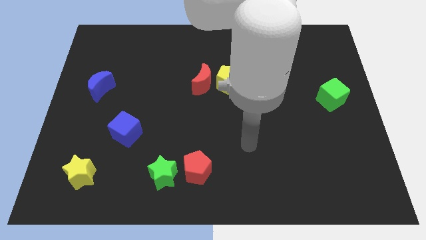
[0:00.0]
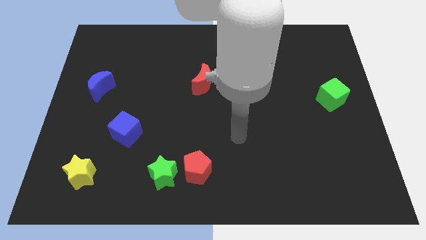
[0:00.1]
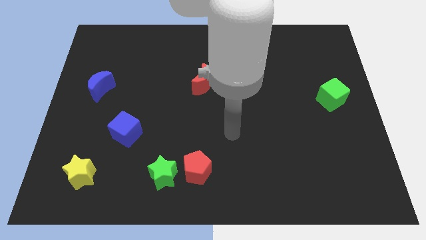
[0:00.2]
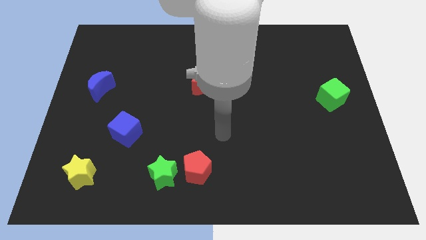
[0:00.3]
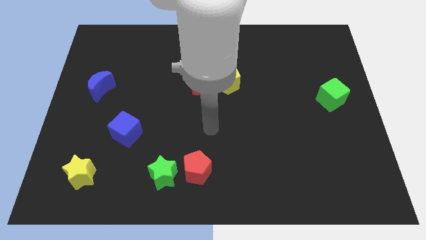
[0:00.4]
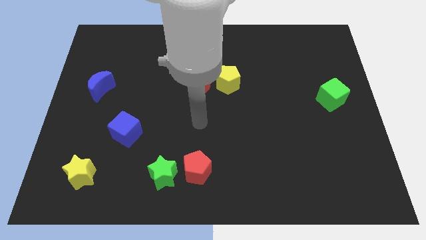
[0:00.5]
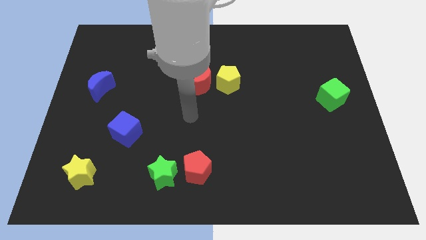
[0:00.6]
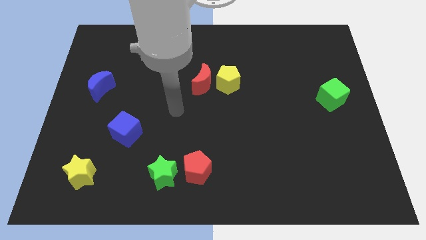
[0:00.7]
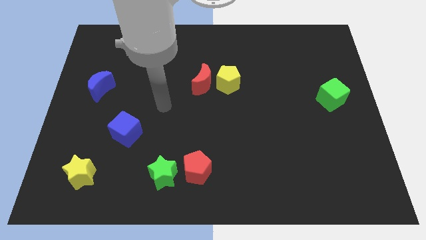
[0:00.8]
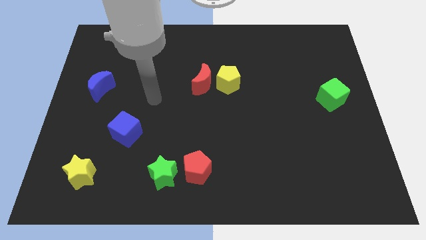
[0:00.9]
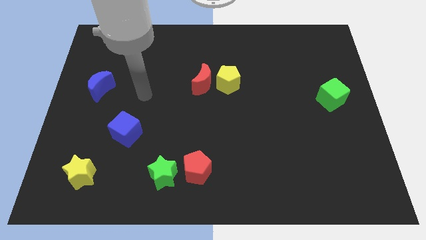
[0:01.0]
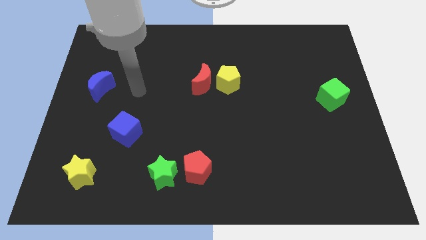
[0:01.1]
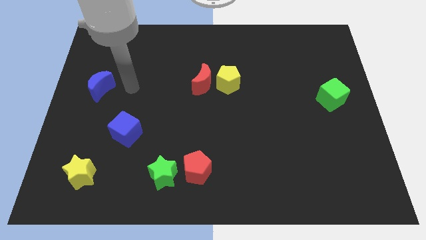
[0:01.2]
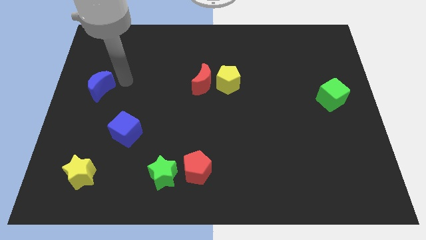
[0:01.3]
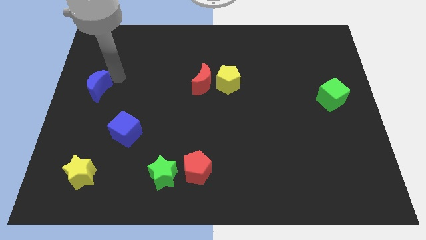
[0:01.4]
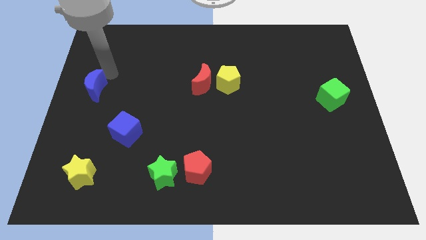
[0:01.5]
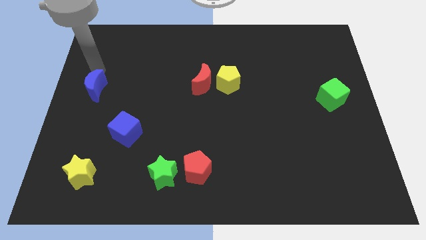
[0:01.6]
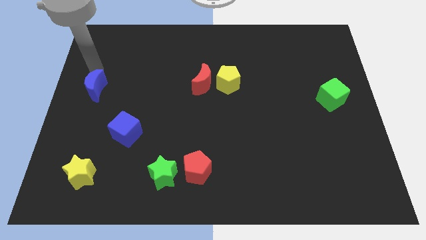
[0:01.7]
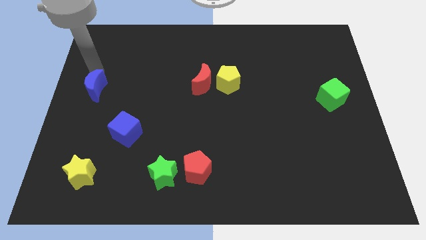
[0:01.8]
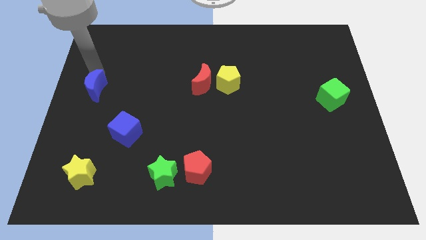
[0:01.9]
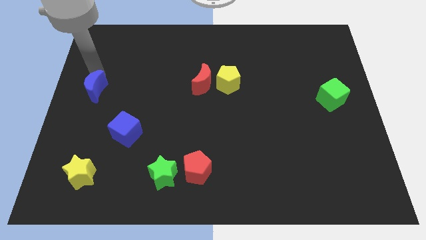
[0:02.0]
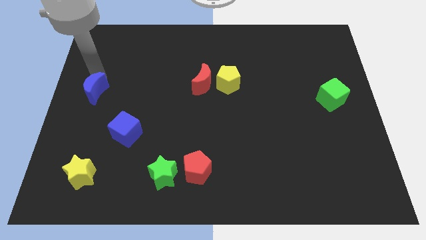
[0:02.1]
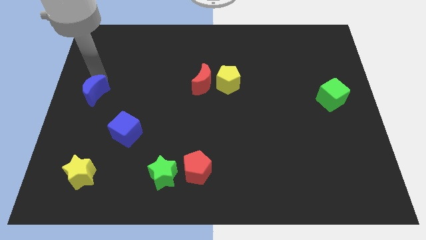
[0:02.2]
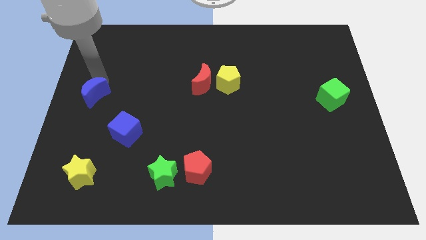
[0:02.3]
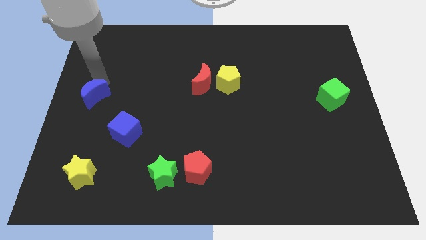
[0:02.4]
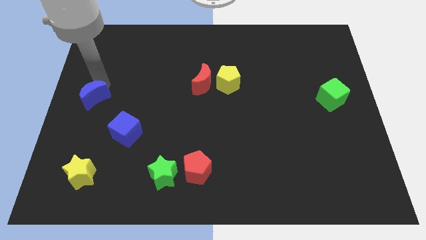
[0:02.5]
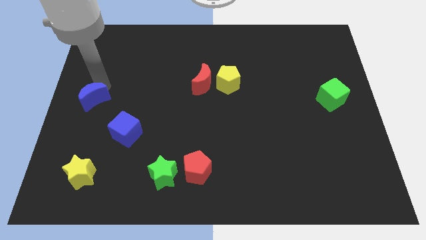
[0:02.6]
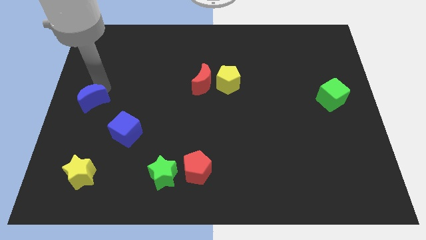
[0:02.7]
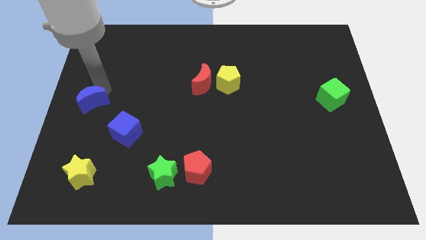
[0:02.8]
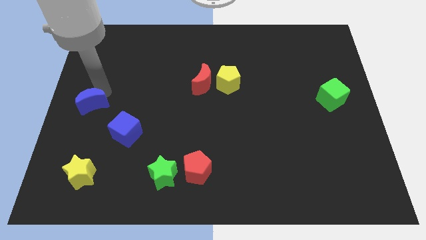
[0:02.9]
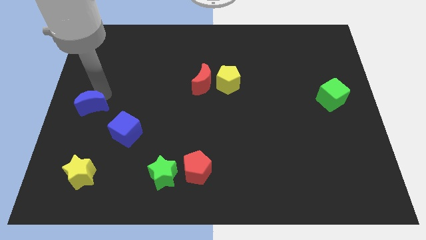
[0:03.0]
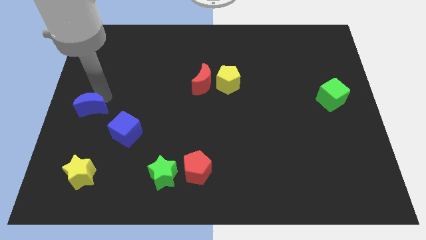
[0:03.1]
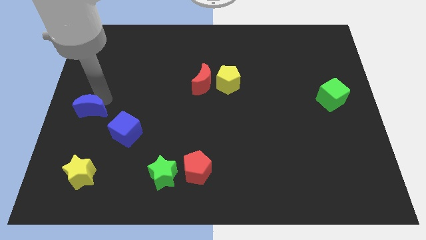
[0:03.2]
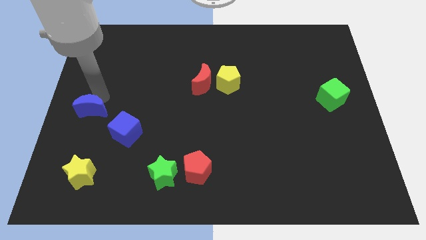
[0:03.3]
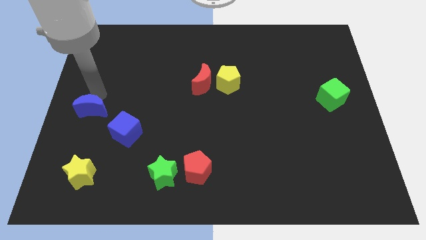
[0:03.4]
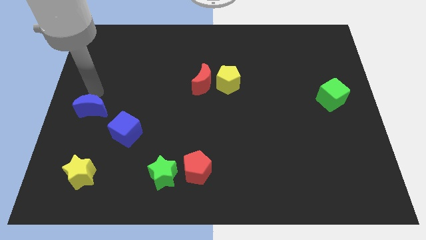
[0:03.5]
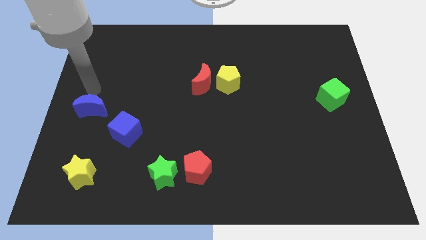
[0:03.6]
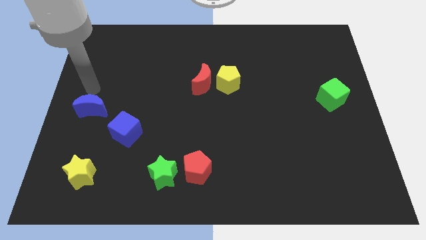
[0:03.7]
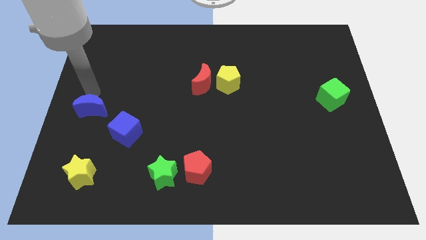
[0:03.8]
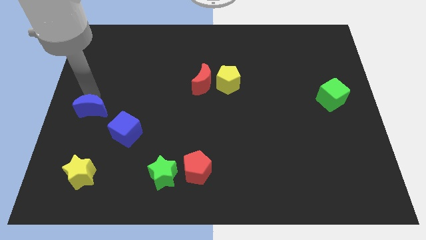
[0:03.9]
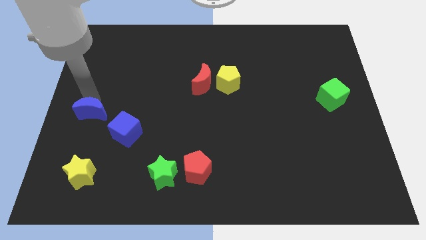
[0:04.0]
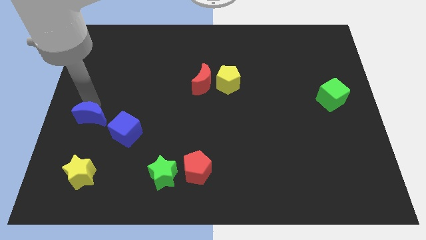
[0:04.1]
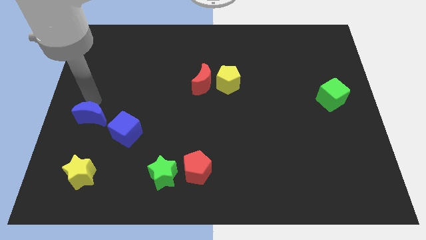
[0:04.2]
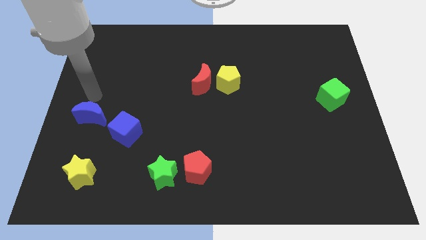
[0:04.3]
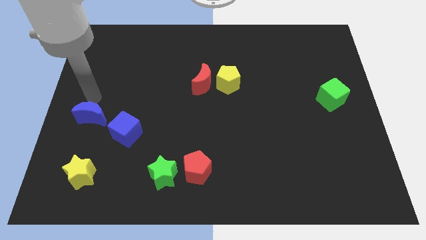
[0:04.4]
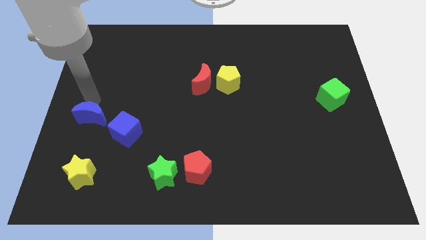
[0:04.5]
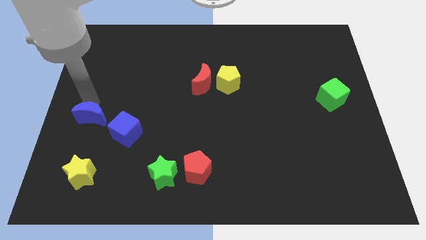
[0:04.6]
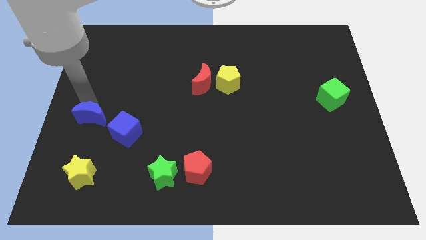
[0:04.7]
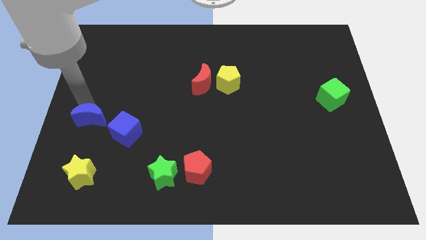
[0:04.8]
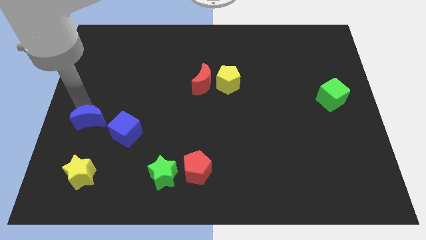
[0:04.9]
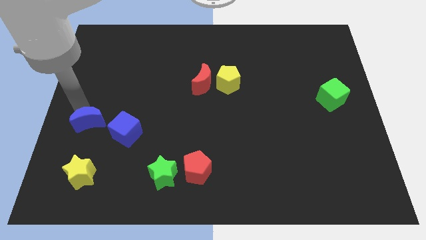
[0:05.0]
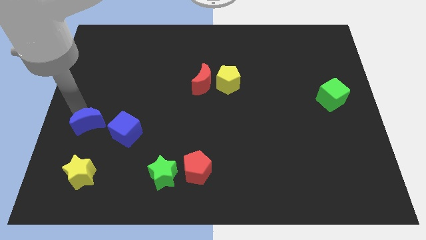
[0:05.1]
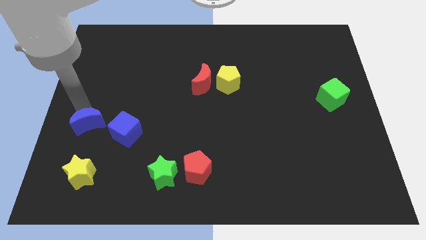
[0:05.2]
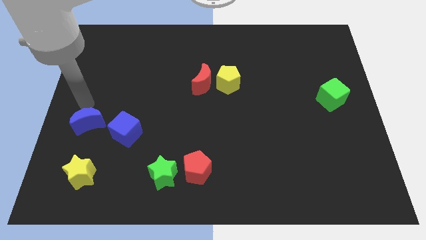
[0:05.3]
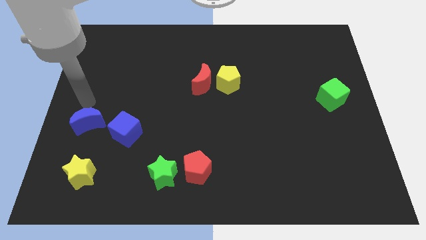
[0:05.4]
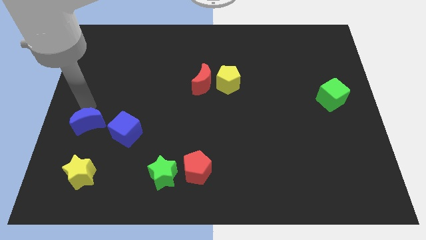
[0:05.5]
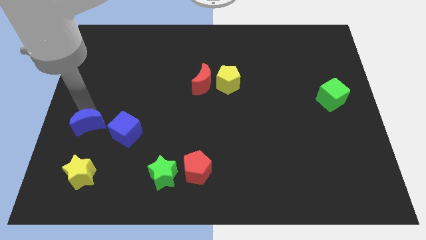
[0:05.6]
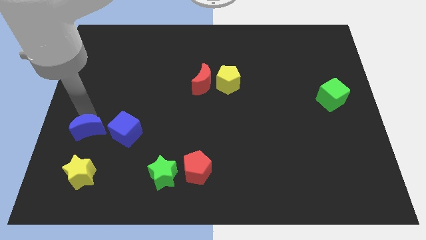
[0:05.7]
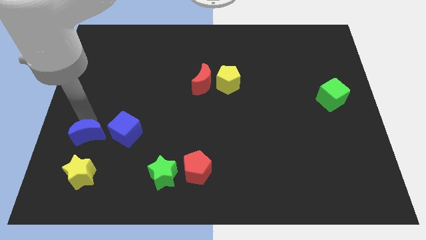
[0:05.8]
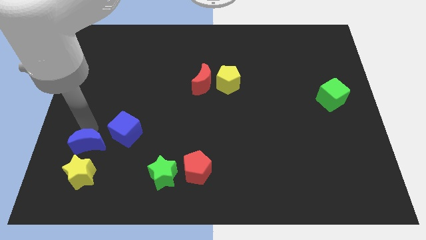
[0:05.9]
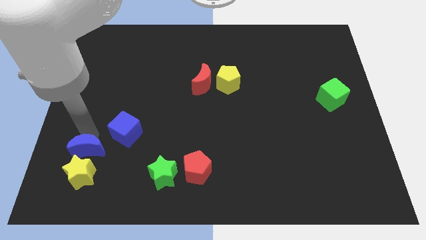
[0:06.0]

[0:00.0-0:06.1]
slide the blue moon towards the yellow star

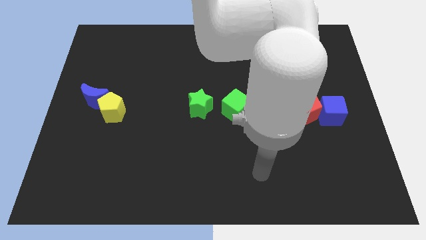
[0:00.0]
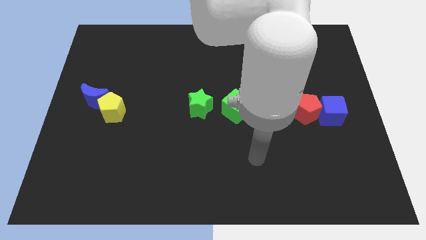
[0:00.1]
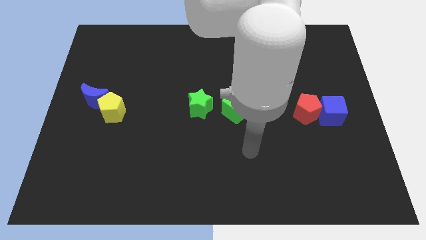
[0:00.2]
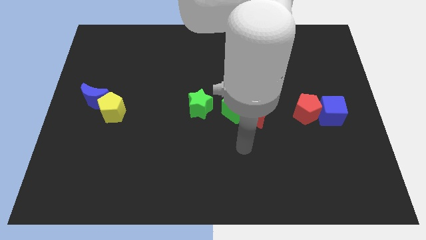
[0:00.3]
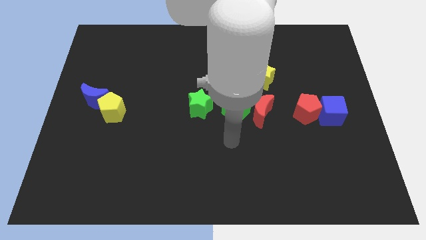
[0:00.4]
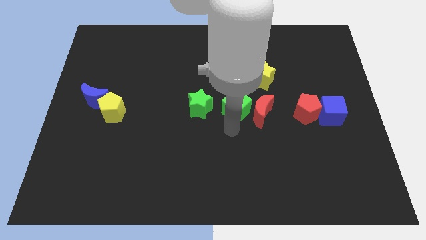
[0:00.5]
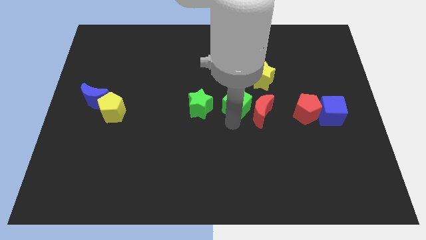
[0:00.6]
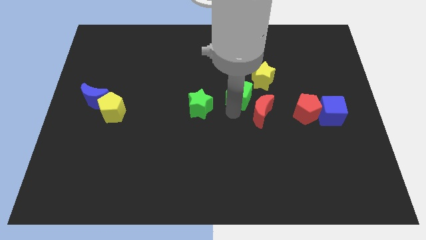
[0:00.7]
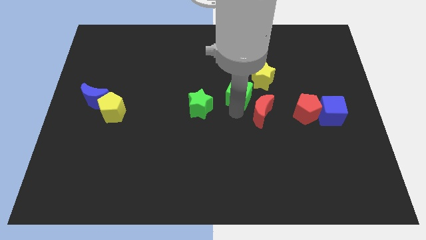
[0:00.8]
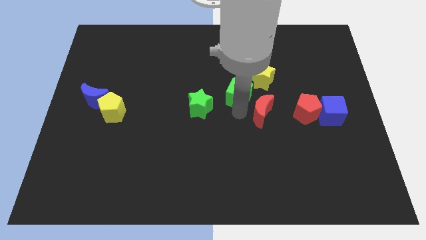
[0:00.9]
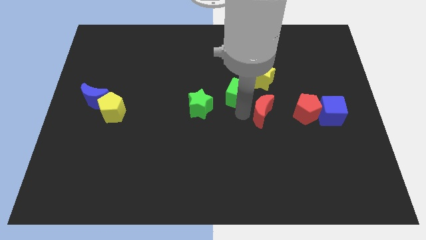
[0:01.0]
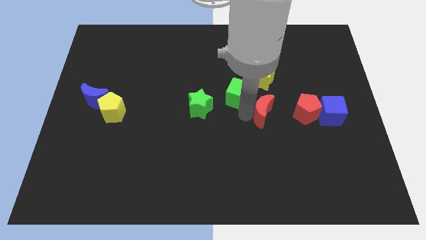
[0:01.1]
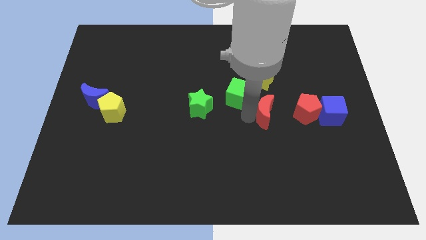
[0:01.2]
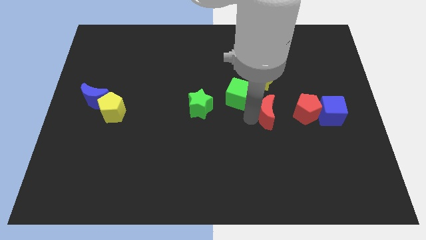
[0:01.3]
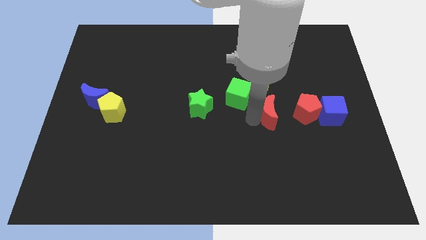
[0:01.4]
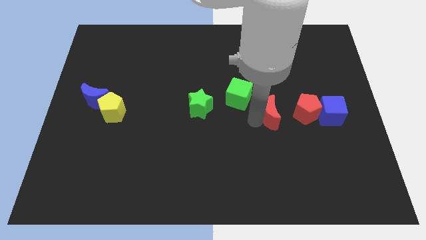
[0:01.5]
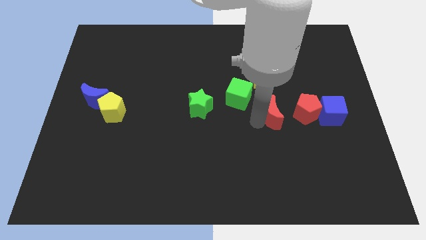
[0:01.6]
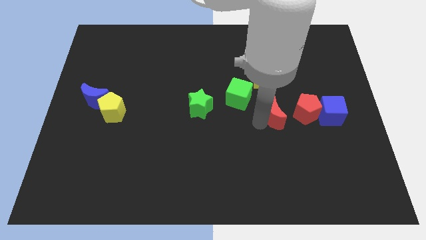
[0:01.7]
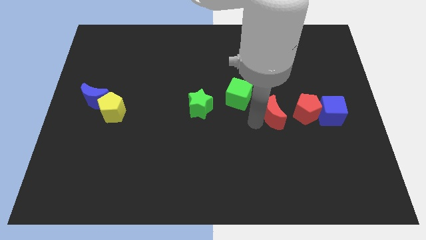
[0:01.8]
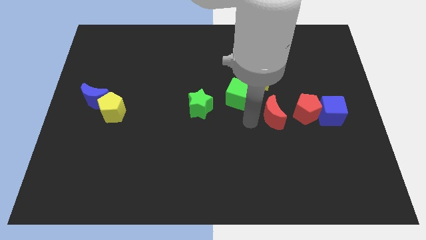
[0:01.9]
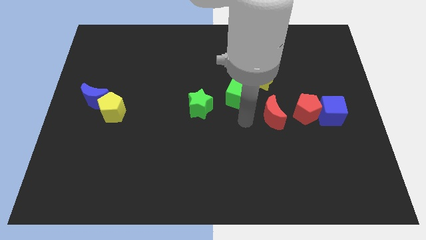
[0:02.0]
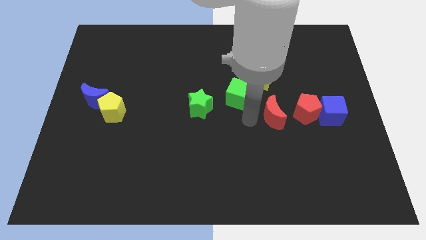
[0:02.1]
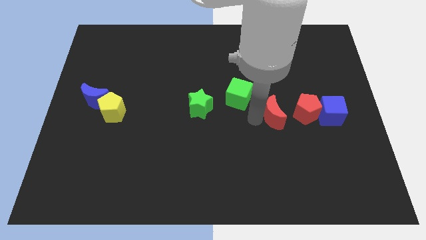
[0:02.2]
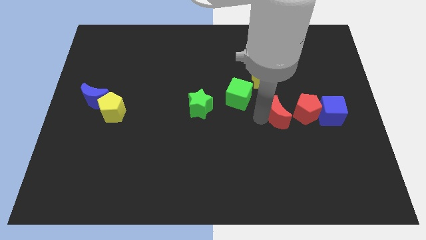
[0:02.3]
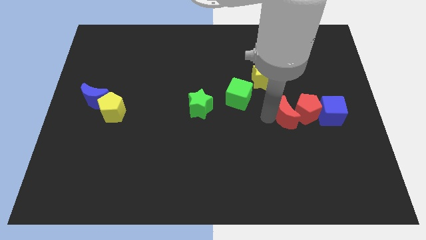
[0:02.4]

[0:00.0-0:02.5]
slide the red moon next to the red pentagon
